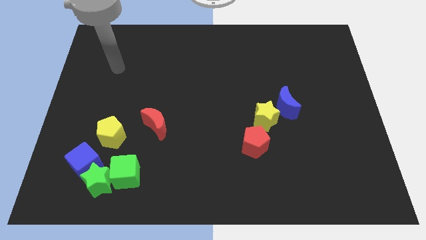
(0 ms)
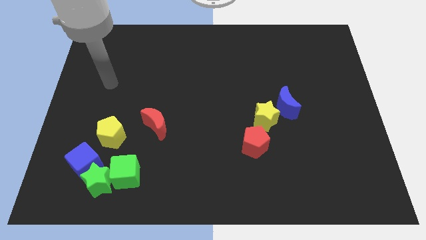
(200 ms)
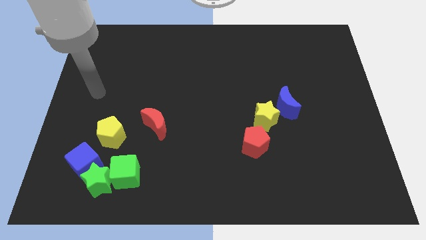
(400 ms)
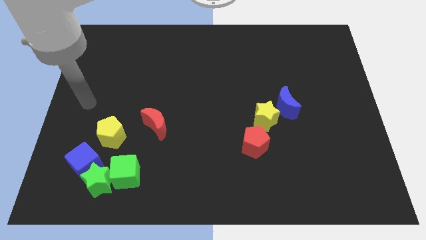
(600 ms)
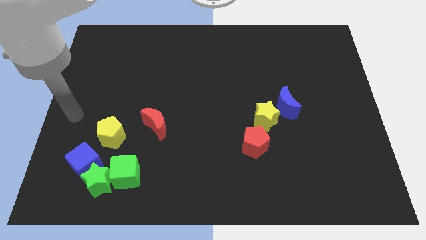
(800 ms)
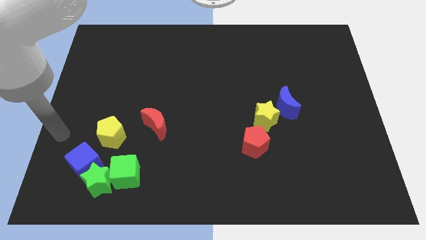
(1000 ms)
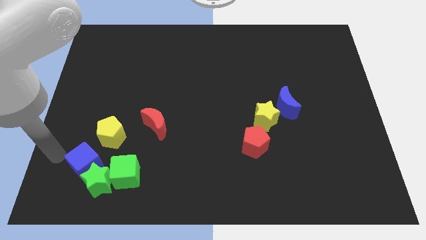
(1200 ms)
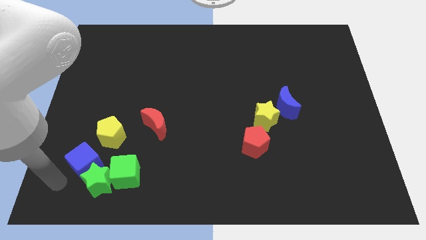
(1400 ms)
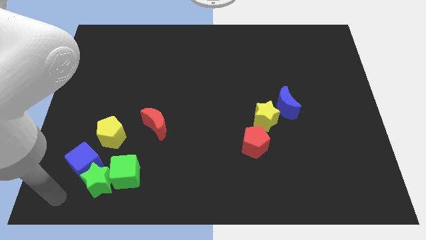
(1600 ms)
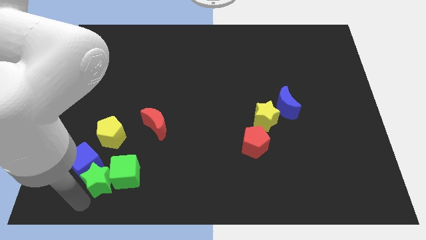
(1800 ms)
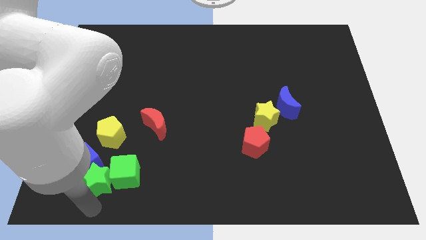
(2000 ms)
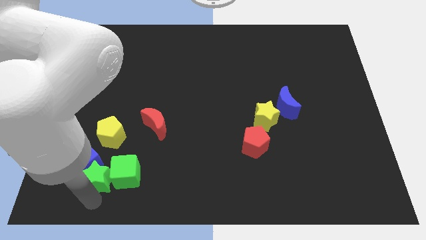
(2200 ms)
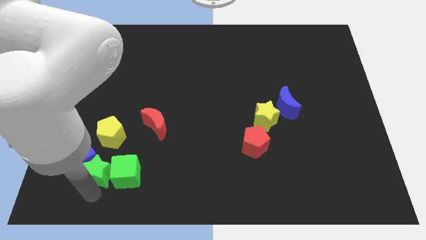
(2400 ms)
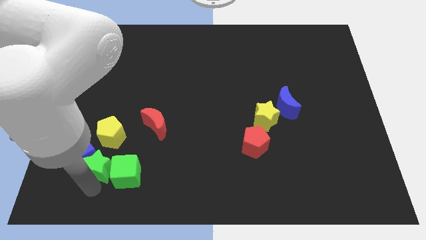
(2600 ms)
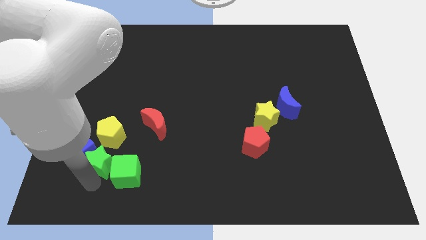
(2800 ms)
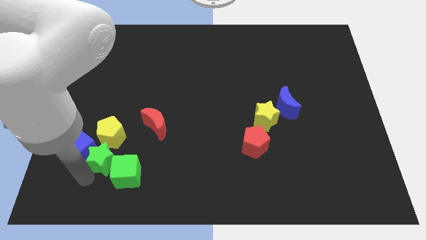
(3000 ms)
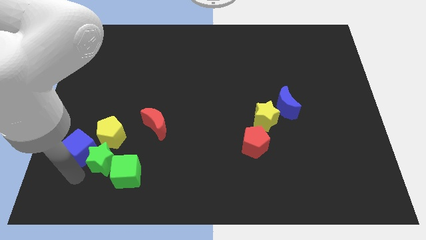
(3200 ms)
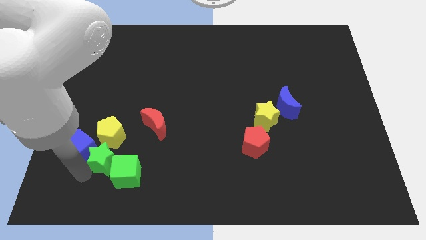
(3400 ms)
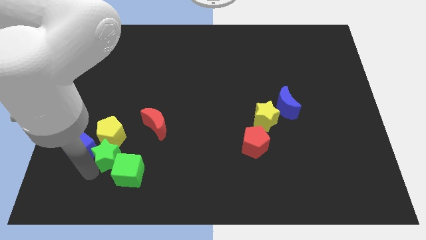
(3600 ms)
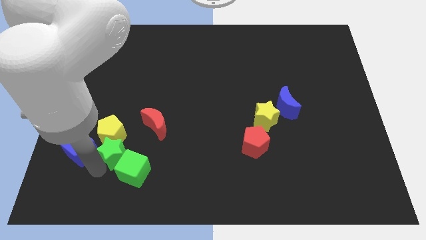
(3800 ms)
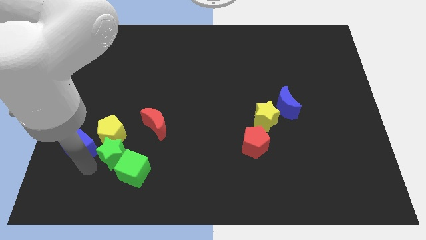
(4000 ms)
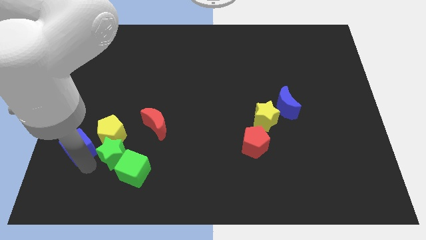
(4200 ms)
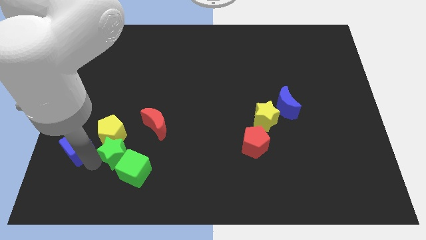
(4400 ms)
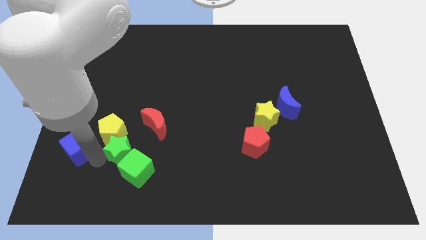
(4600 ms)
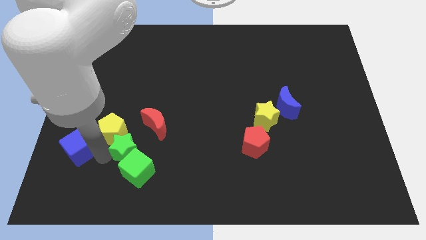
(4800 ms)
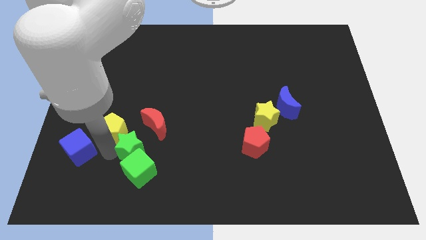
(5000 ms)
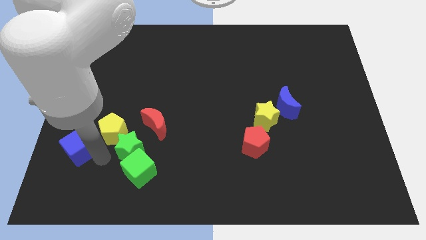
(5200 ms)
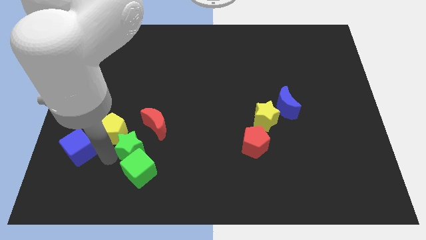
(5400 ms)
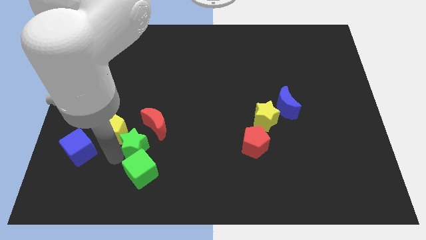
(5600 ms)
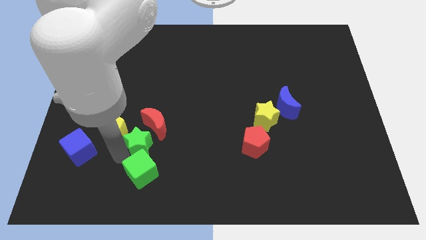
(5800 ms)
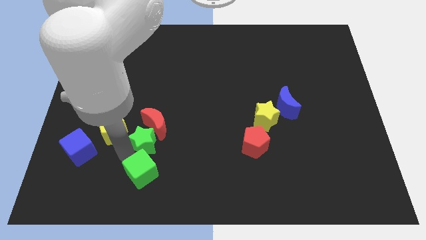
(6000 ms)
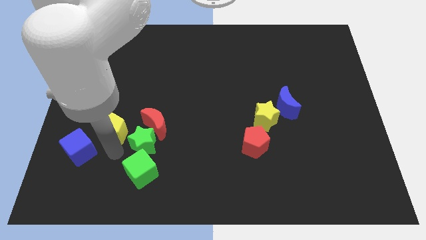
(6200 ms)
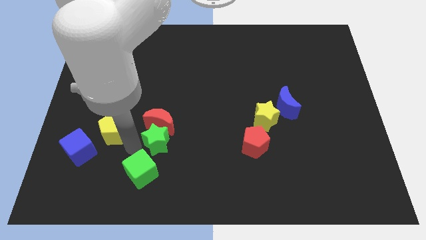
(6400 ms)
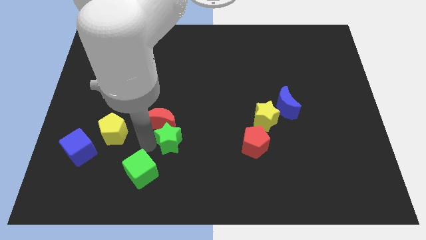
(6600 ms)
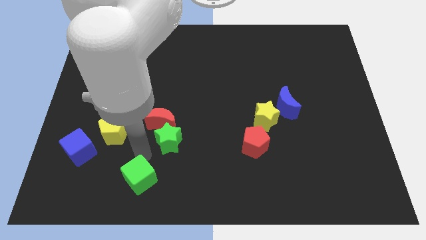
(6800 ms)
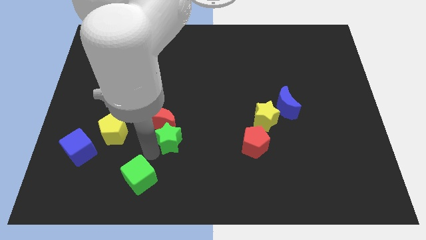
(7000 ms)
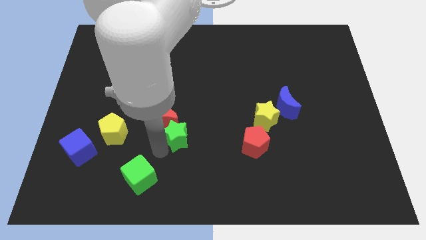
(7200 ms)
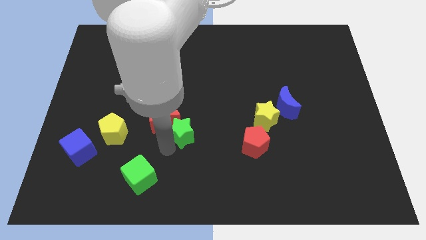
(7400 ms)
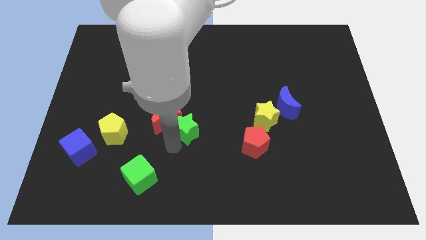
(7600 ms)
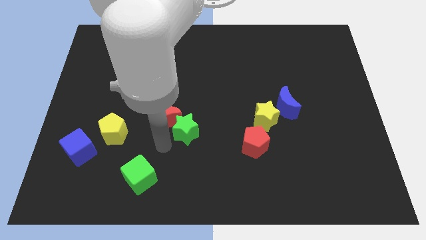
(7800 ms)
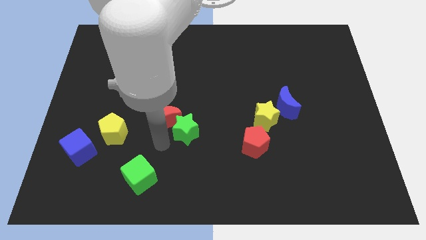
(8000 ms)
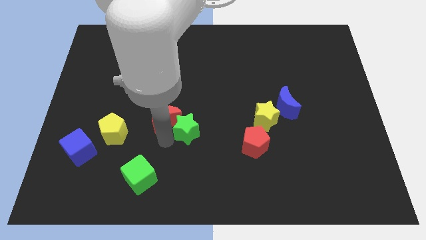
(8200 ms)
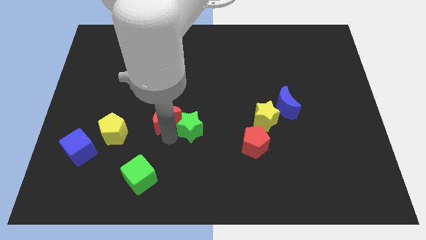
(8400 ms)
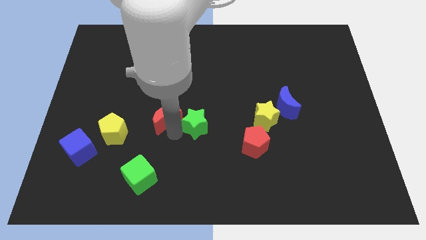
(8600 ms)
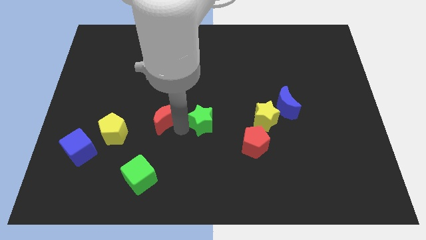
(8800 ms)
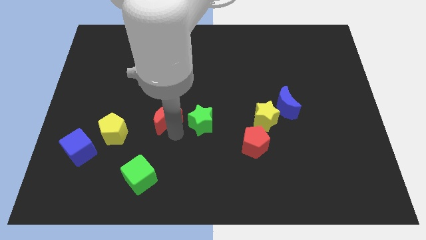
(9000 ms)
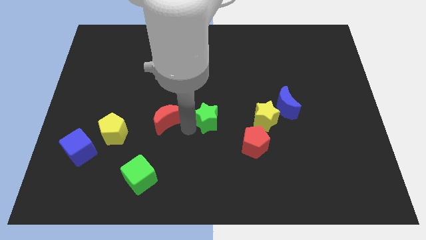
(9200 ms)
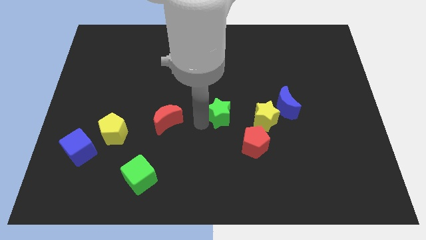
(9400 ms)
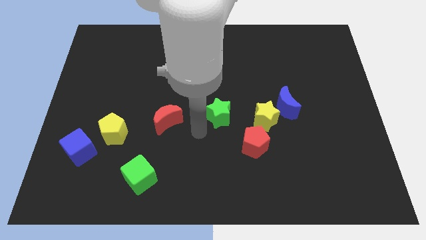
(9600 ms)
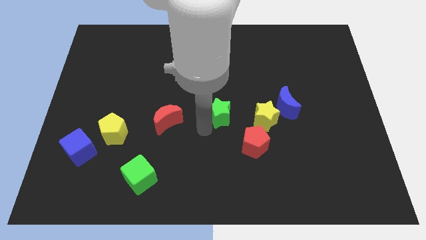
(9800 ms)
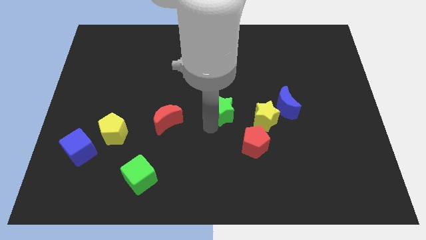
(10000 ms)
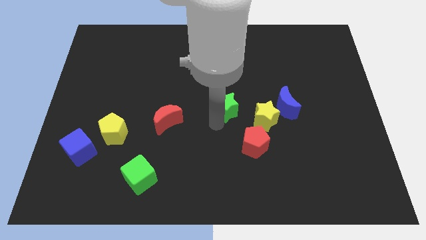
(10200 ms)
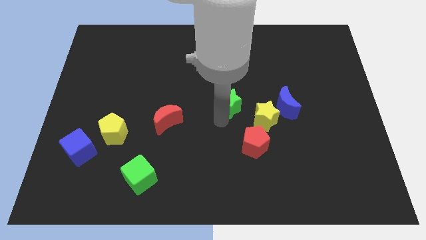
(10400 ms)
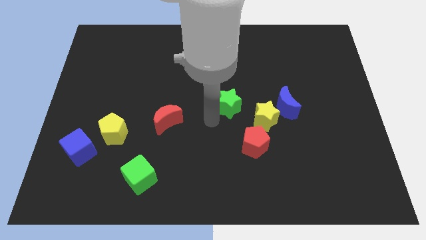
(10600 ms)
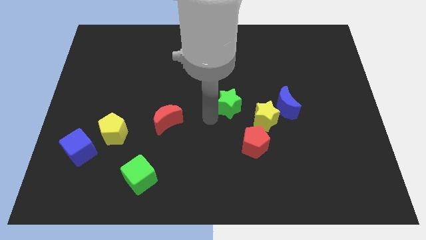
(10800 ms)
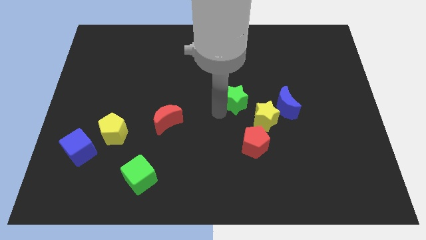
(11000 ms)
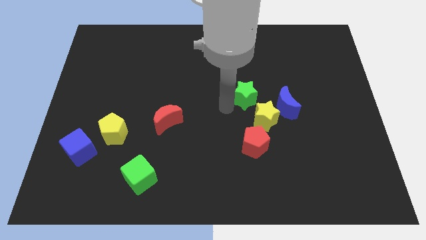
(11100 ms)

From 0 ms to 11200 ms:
move the green star to the top side of the yellow star

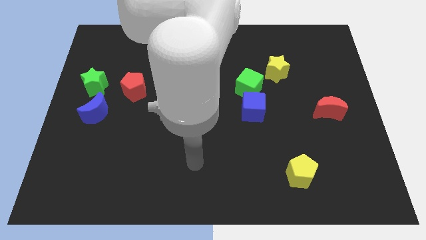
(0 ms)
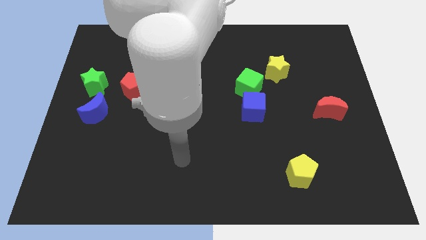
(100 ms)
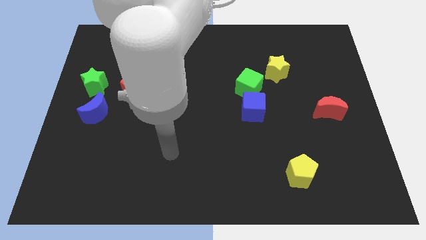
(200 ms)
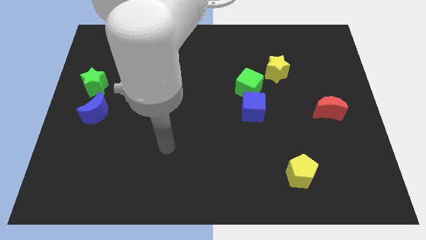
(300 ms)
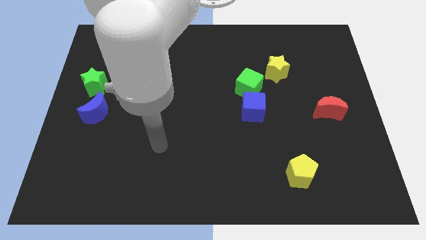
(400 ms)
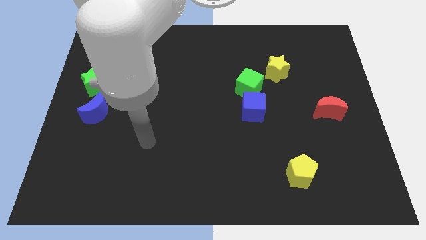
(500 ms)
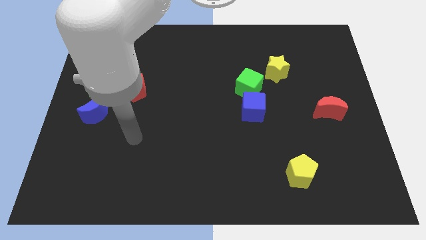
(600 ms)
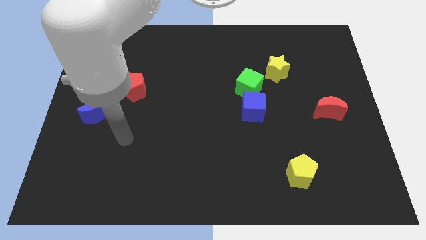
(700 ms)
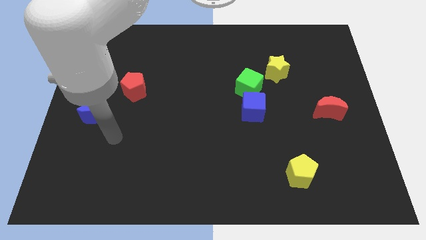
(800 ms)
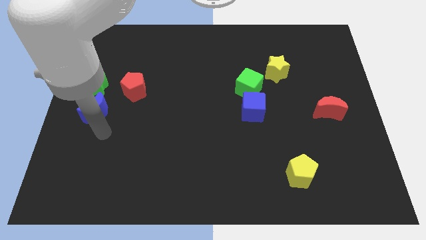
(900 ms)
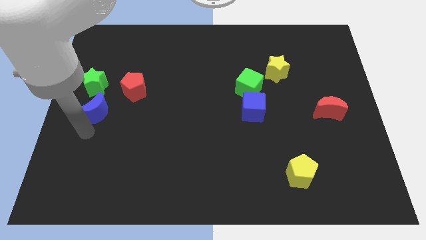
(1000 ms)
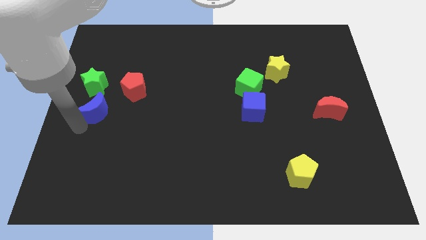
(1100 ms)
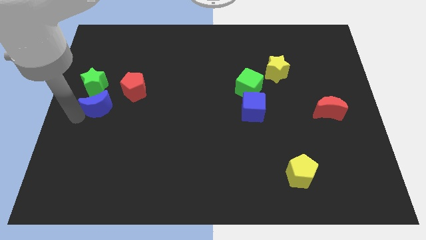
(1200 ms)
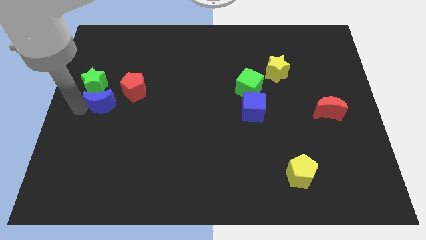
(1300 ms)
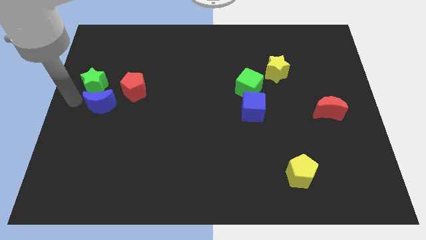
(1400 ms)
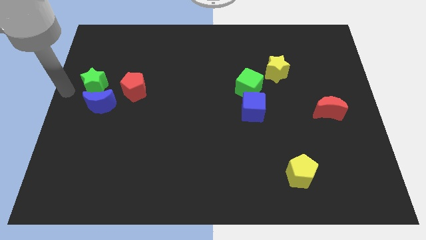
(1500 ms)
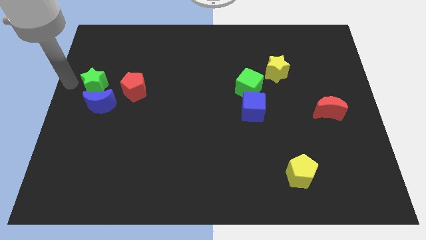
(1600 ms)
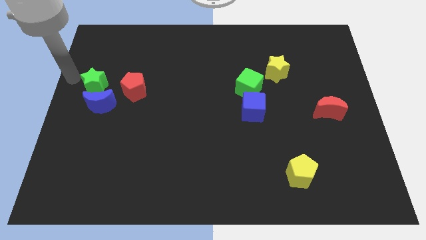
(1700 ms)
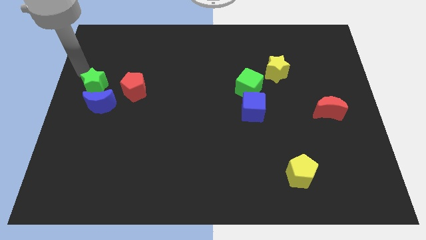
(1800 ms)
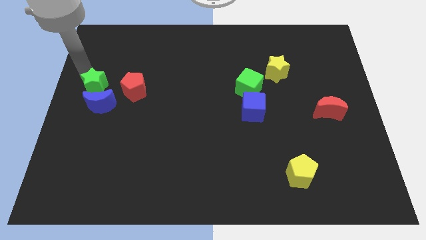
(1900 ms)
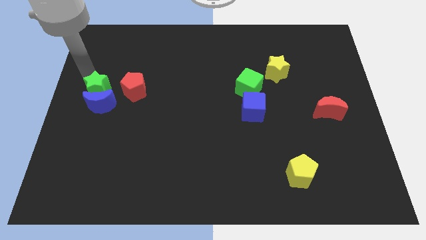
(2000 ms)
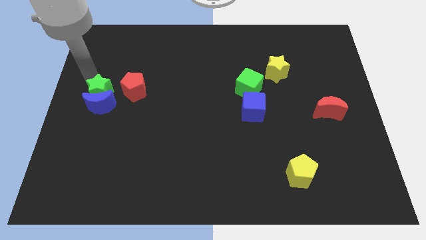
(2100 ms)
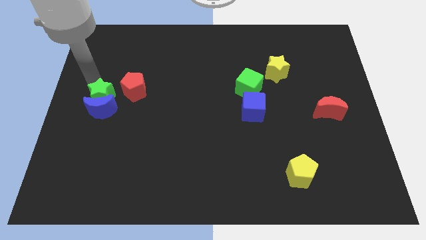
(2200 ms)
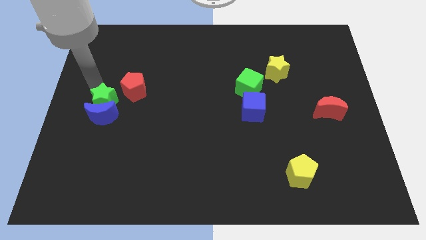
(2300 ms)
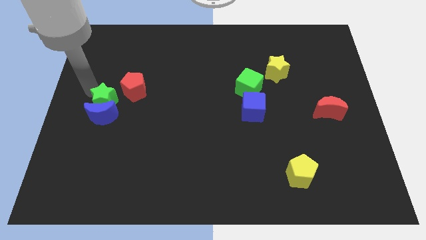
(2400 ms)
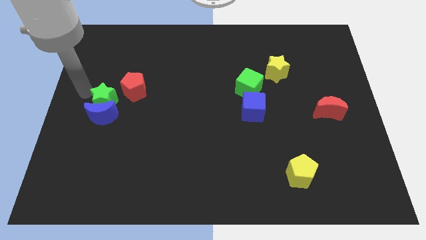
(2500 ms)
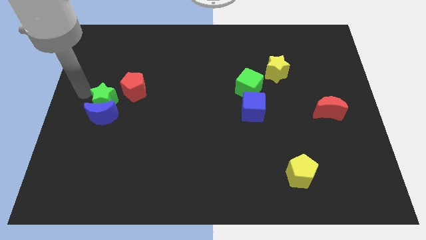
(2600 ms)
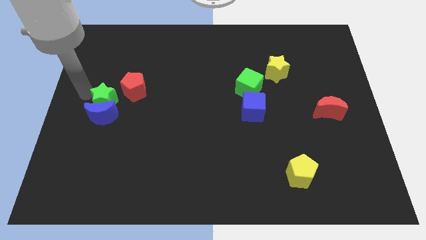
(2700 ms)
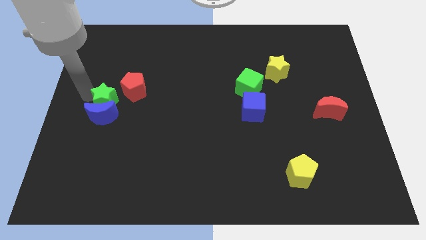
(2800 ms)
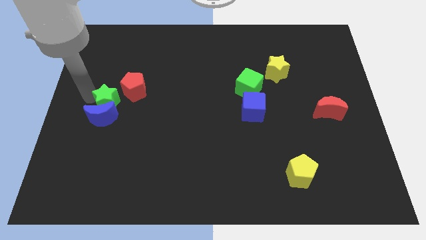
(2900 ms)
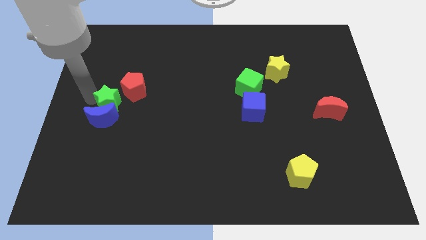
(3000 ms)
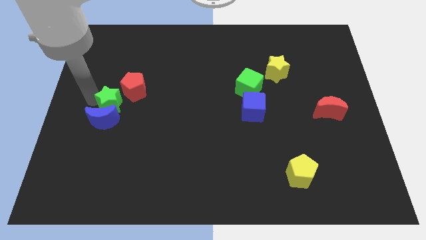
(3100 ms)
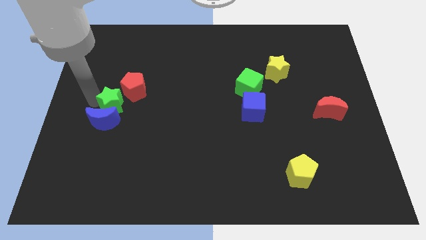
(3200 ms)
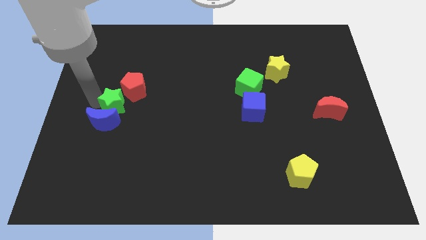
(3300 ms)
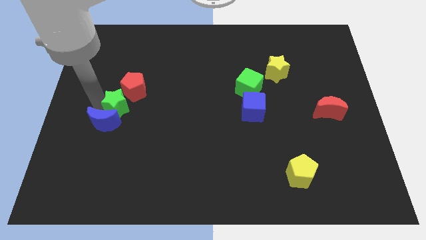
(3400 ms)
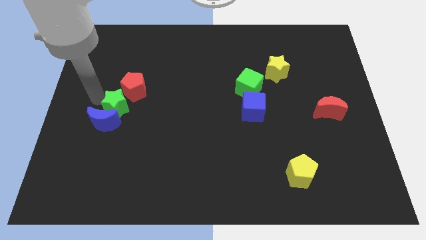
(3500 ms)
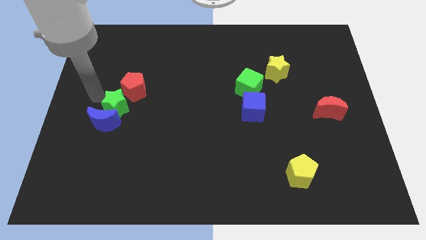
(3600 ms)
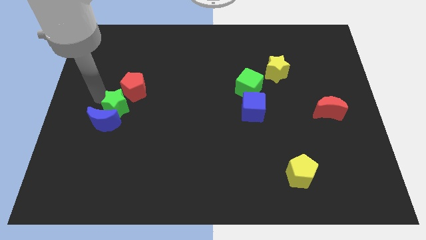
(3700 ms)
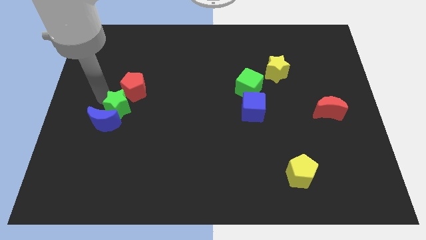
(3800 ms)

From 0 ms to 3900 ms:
push the green star right of the blue moon
